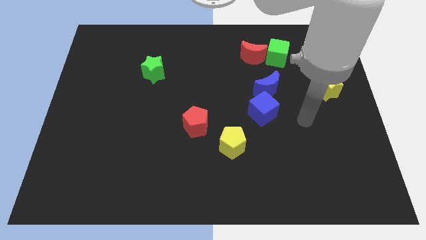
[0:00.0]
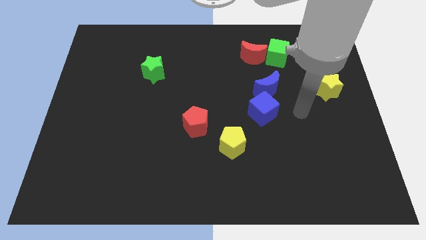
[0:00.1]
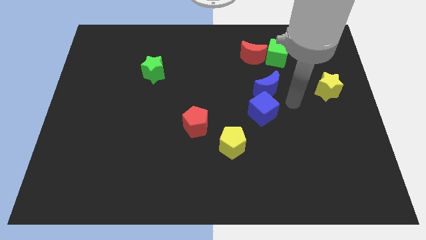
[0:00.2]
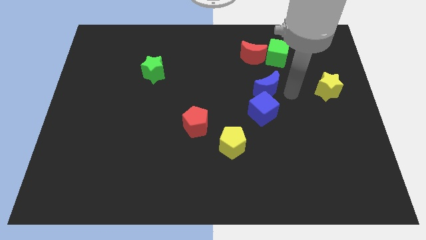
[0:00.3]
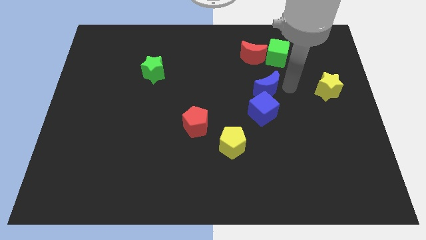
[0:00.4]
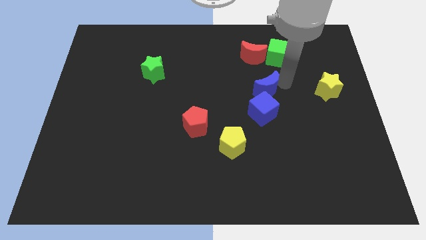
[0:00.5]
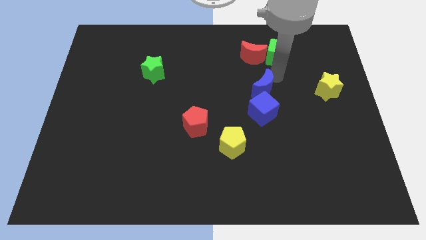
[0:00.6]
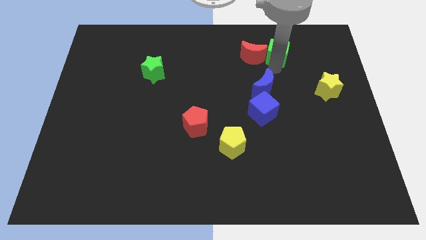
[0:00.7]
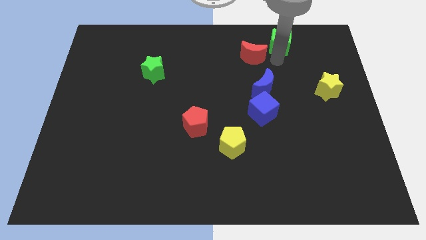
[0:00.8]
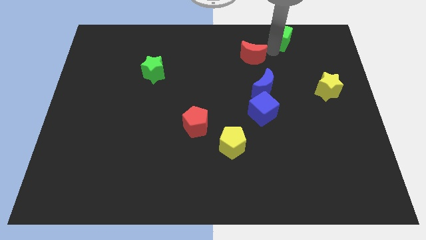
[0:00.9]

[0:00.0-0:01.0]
move the red moon away from the green cube

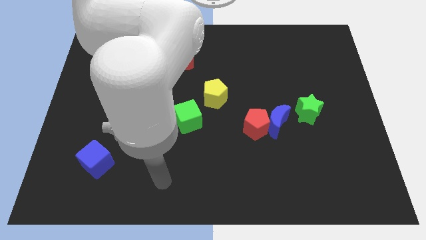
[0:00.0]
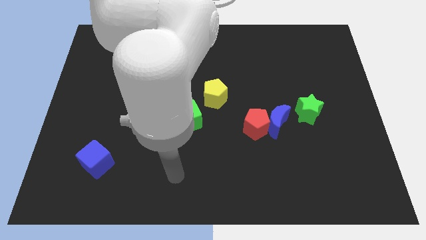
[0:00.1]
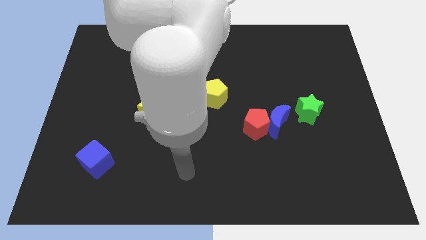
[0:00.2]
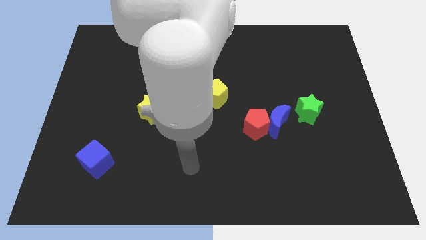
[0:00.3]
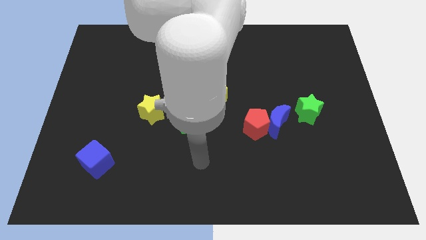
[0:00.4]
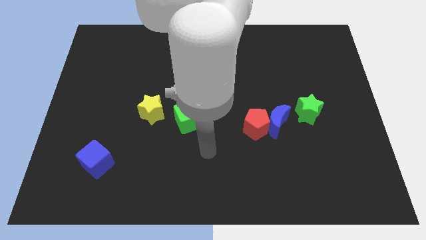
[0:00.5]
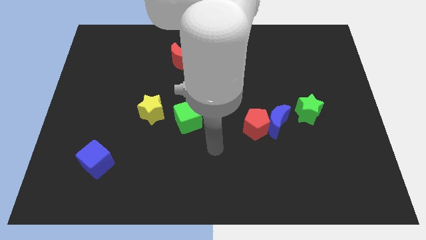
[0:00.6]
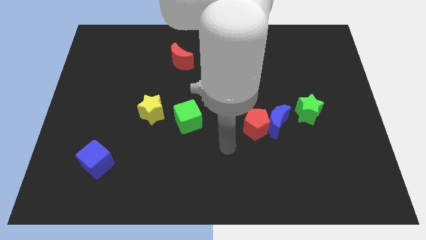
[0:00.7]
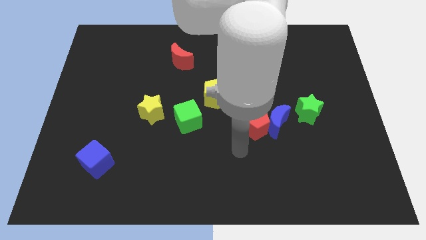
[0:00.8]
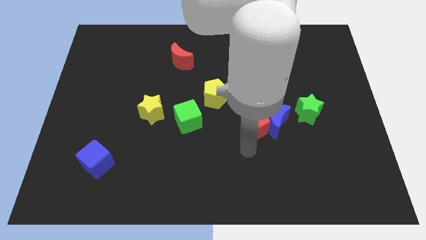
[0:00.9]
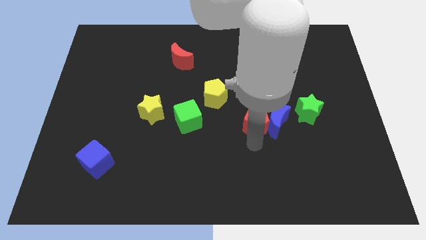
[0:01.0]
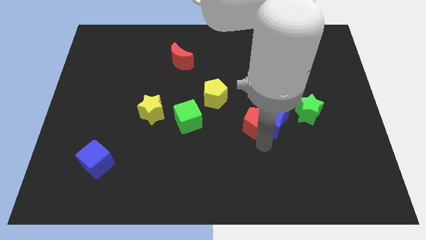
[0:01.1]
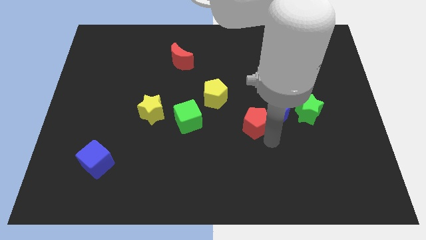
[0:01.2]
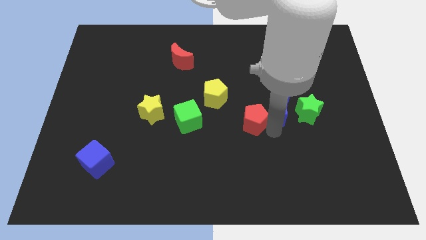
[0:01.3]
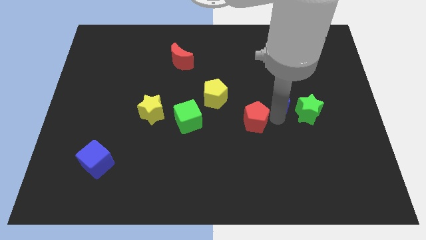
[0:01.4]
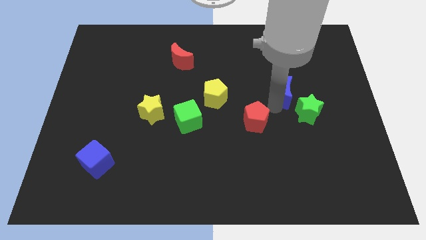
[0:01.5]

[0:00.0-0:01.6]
separate the red pentagon from the blue moon

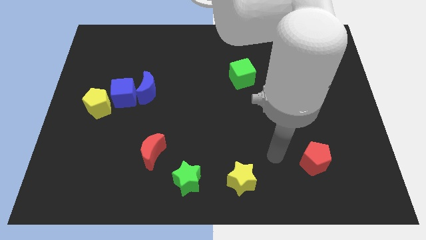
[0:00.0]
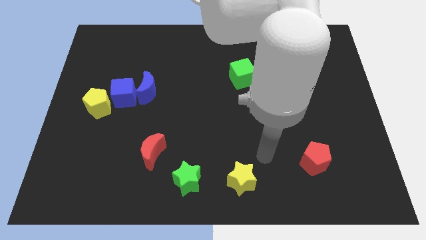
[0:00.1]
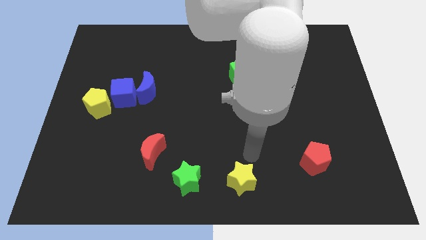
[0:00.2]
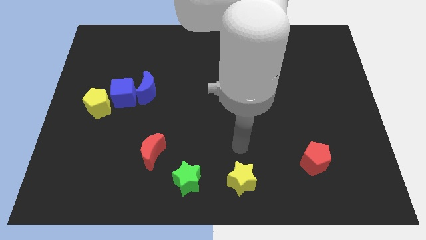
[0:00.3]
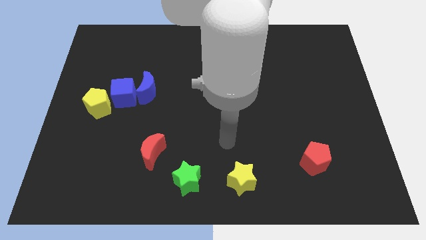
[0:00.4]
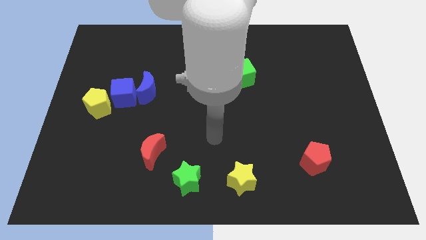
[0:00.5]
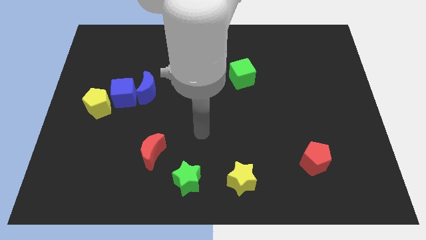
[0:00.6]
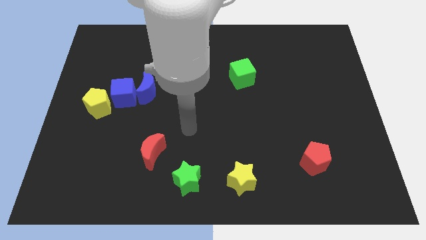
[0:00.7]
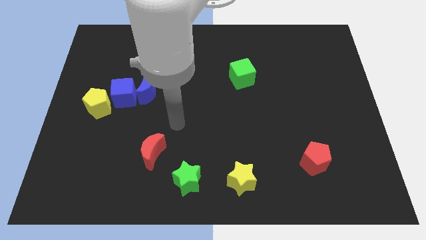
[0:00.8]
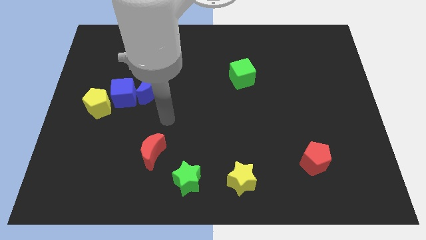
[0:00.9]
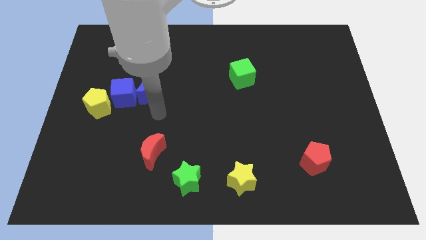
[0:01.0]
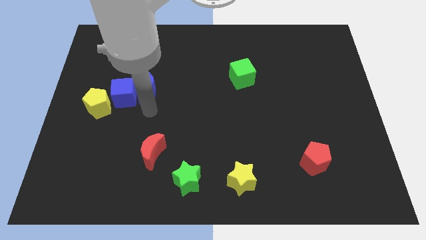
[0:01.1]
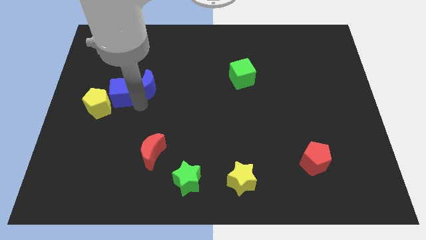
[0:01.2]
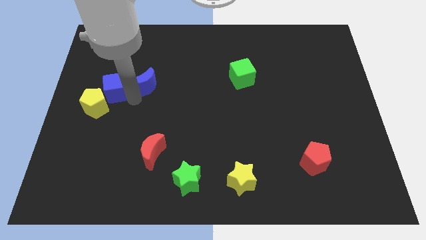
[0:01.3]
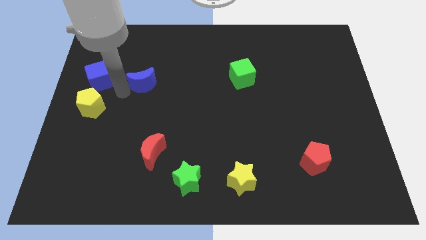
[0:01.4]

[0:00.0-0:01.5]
separate the blue moon from the blue cube

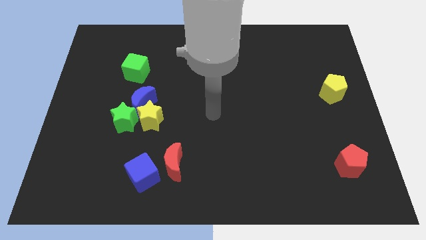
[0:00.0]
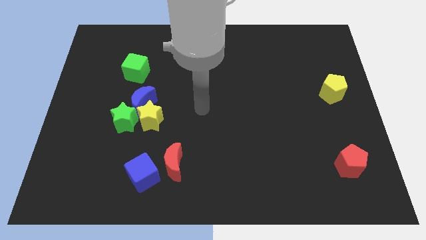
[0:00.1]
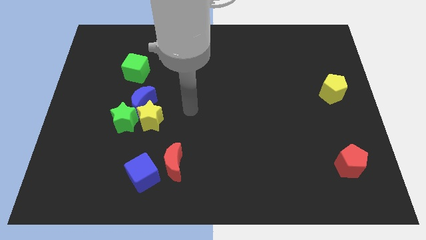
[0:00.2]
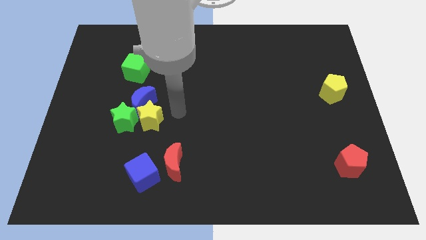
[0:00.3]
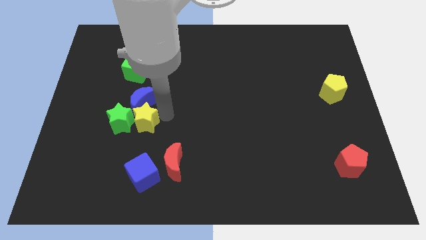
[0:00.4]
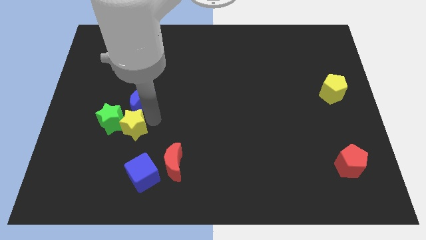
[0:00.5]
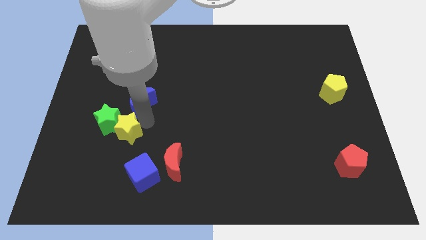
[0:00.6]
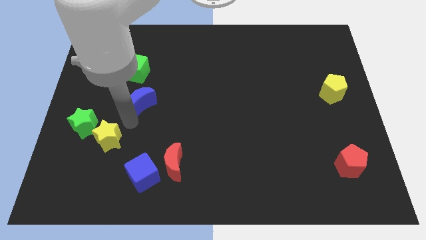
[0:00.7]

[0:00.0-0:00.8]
separate the blue moon from the yellow star and green star

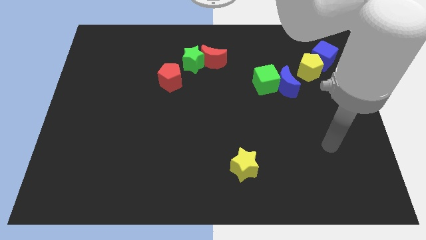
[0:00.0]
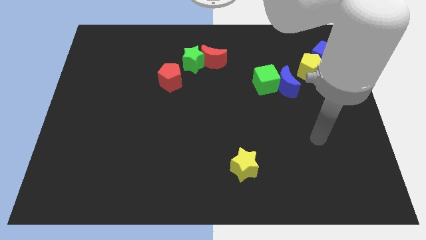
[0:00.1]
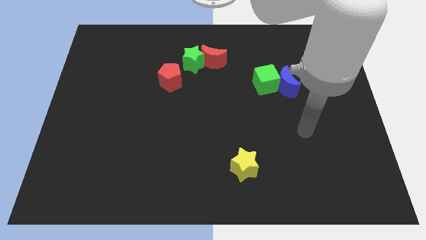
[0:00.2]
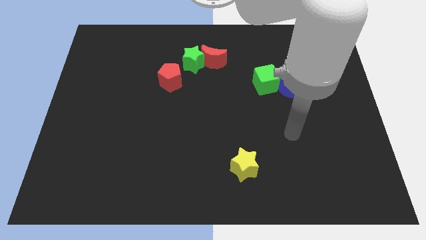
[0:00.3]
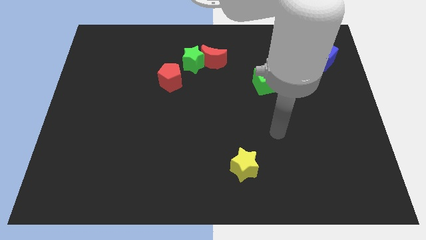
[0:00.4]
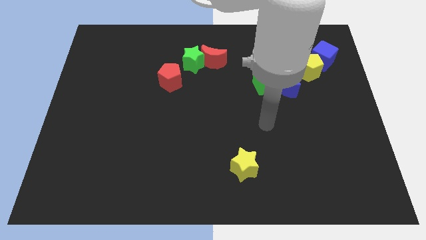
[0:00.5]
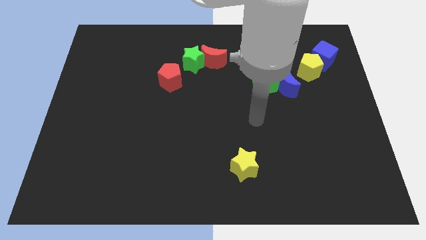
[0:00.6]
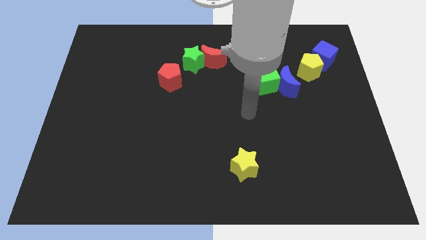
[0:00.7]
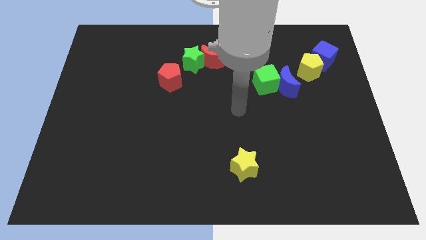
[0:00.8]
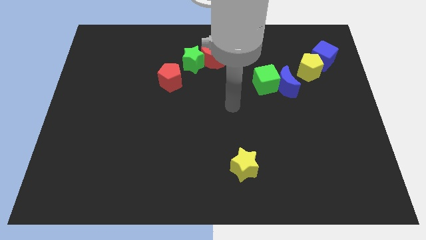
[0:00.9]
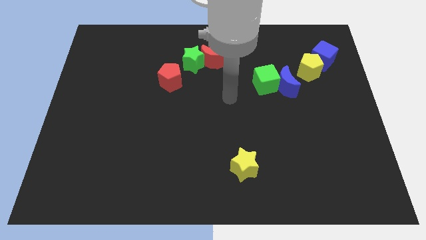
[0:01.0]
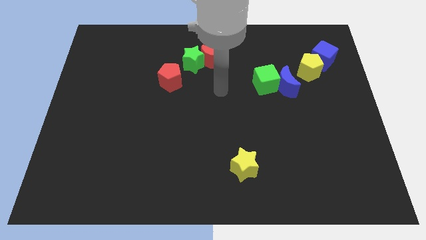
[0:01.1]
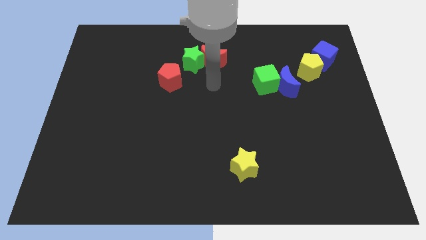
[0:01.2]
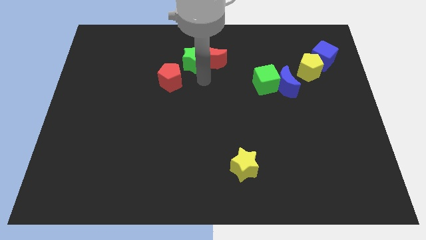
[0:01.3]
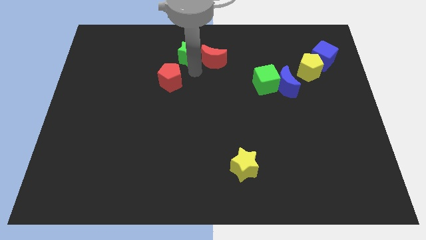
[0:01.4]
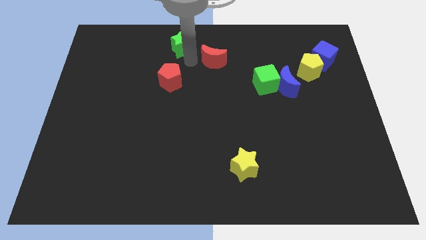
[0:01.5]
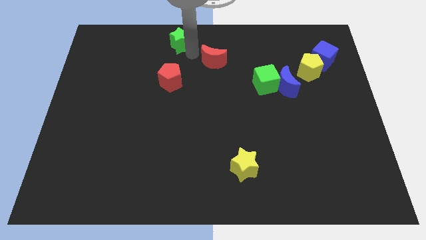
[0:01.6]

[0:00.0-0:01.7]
separate the red moon from the green star

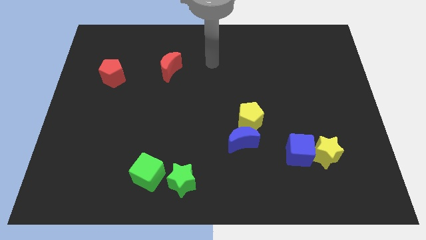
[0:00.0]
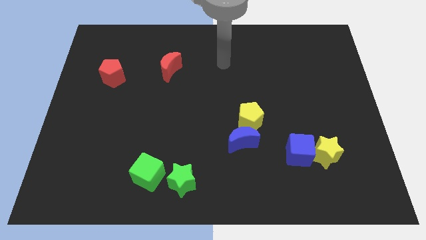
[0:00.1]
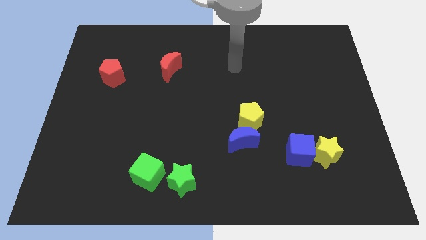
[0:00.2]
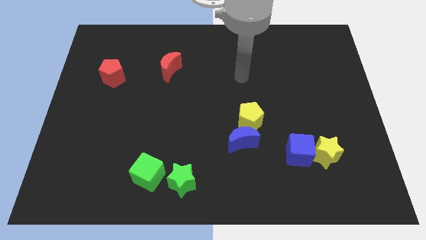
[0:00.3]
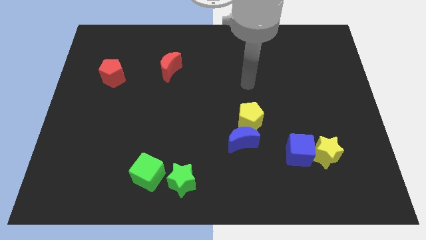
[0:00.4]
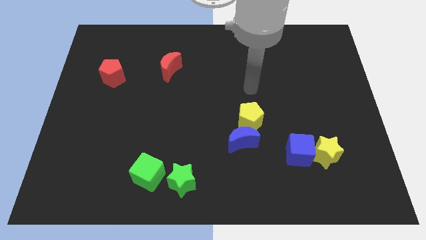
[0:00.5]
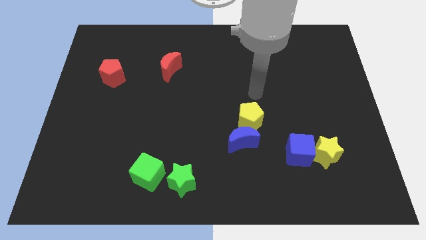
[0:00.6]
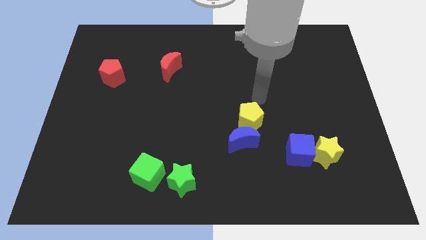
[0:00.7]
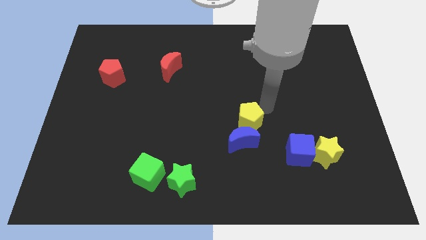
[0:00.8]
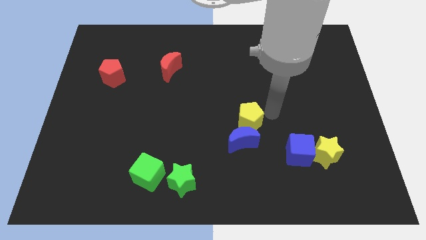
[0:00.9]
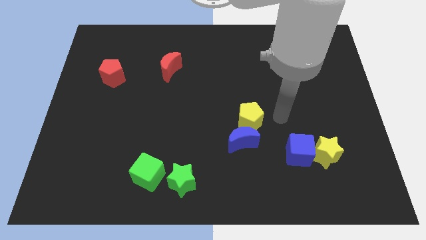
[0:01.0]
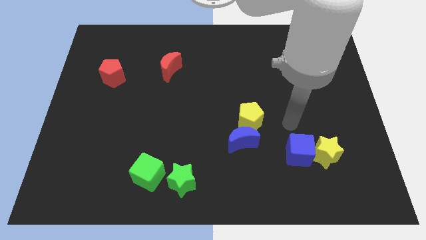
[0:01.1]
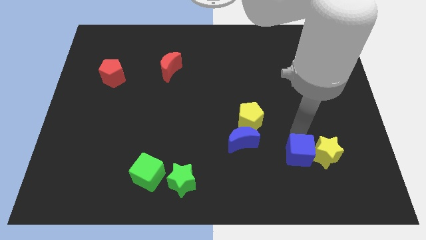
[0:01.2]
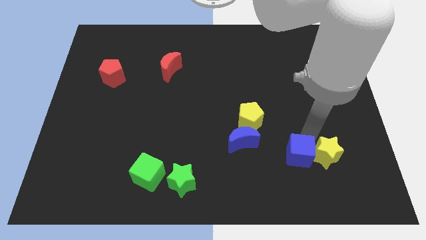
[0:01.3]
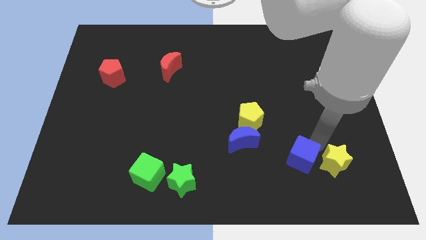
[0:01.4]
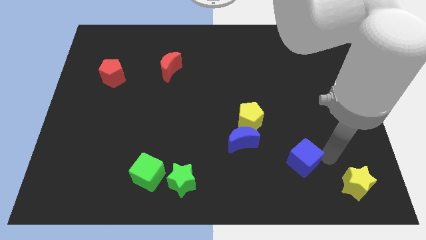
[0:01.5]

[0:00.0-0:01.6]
separate the blue cube from the yellow star

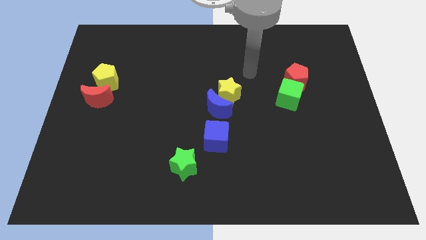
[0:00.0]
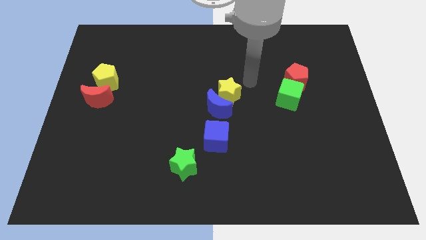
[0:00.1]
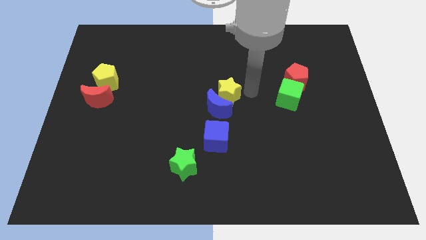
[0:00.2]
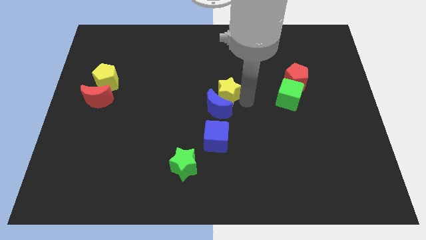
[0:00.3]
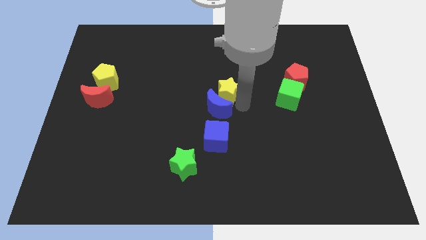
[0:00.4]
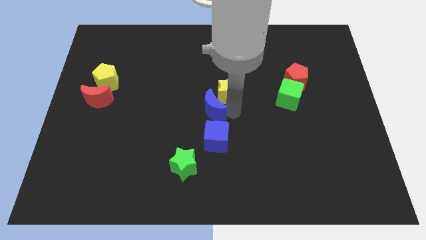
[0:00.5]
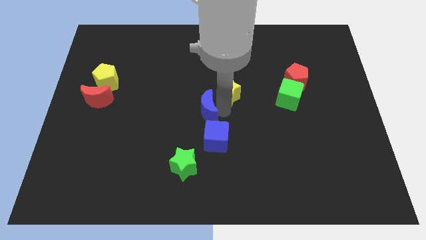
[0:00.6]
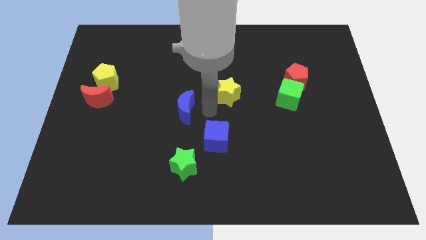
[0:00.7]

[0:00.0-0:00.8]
move the yellow star away from the blue moon

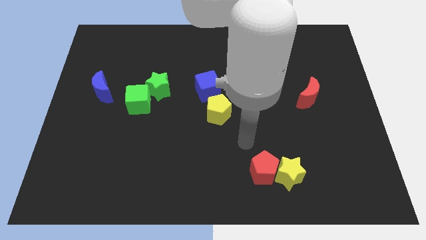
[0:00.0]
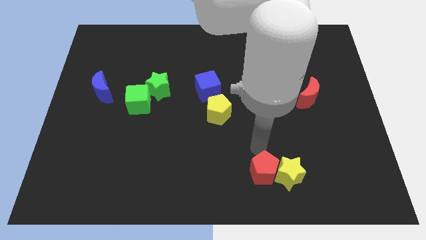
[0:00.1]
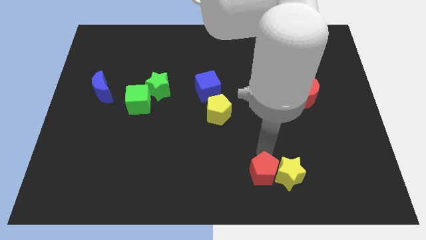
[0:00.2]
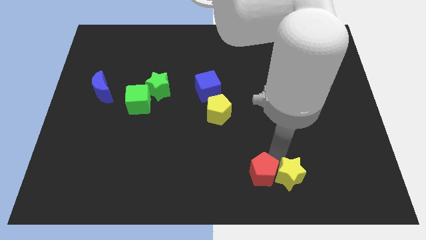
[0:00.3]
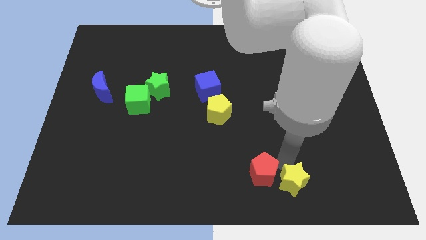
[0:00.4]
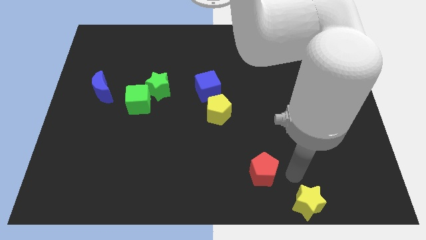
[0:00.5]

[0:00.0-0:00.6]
move the red pentagon away from the yellow star
